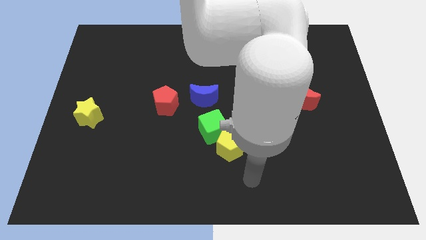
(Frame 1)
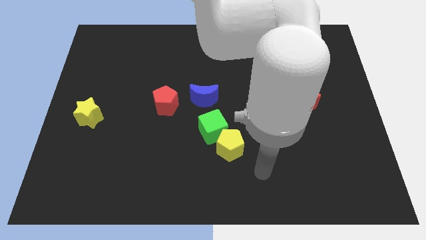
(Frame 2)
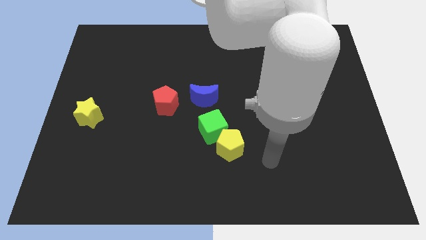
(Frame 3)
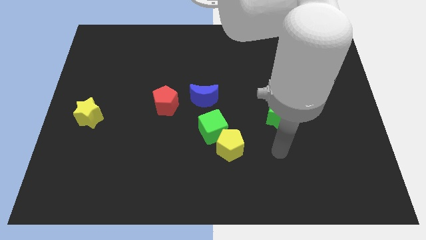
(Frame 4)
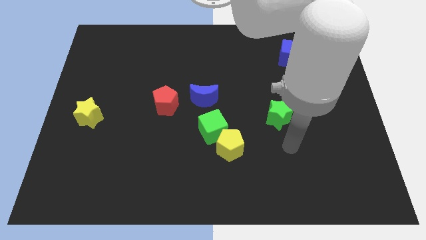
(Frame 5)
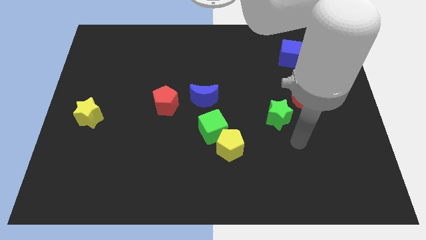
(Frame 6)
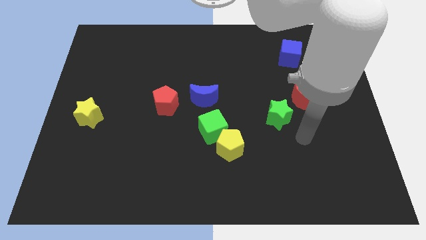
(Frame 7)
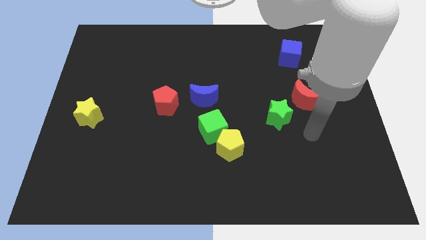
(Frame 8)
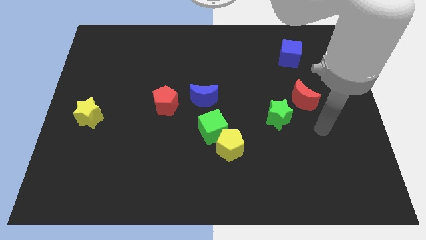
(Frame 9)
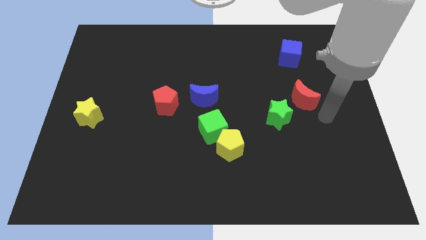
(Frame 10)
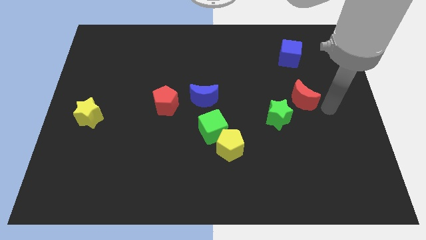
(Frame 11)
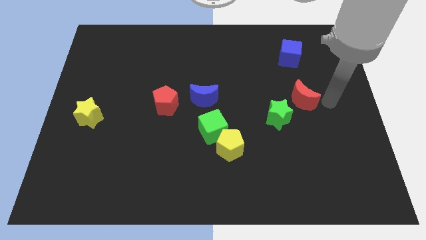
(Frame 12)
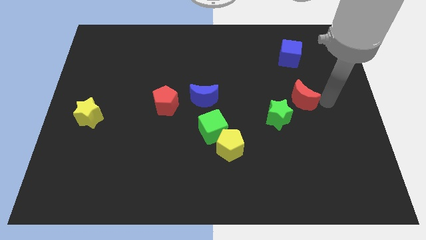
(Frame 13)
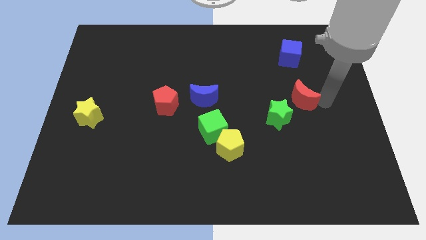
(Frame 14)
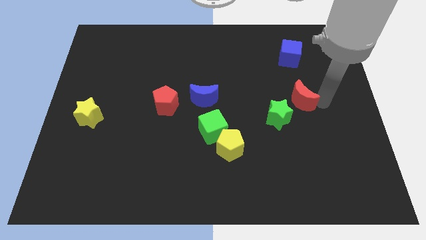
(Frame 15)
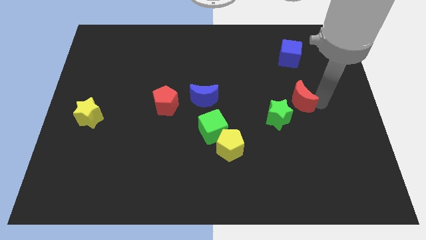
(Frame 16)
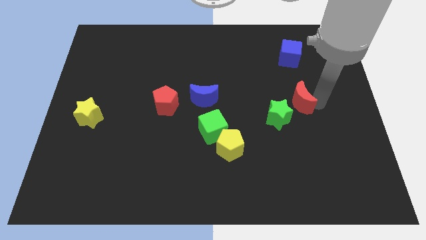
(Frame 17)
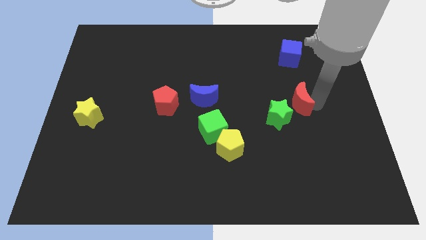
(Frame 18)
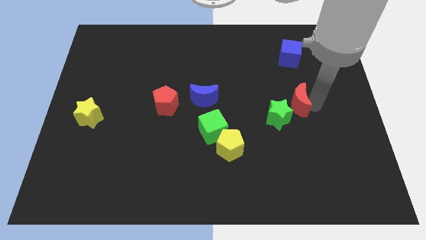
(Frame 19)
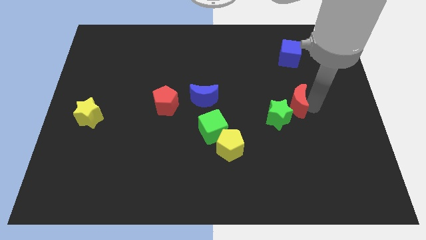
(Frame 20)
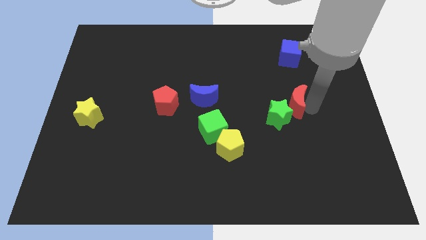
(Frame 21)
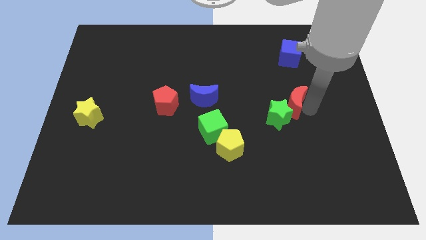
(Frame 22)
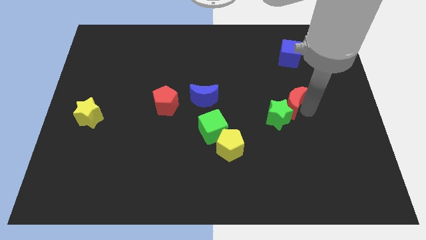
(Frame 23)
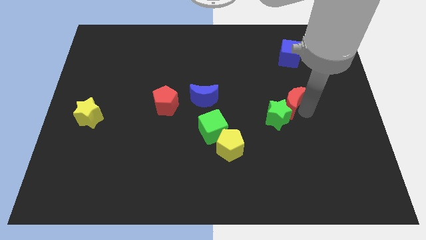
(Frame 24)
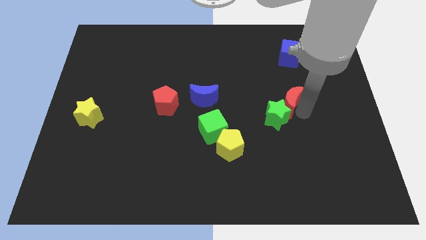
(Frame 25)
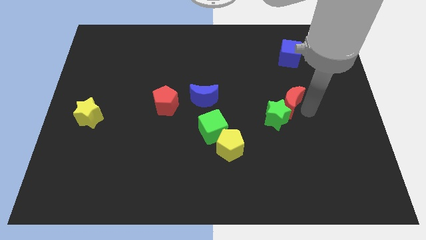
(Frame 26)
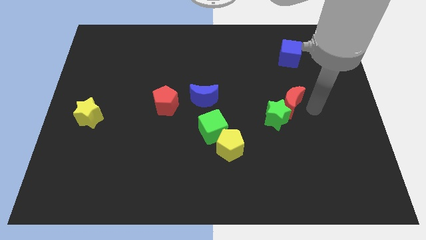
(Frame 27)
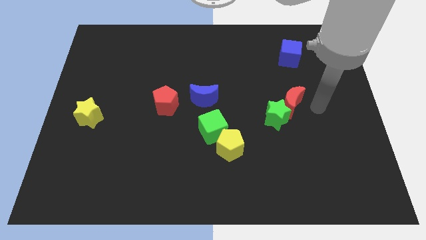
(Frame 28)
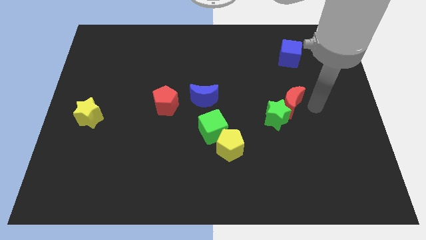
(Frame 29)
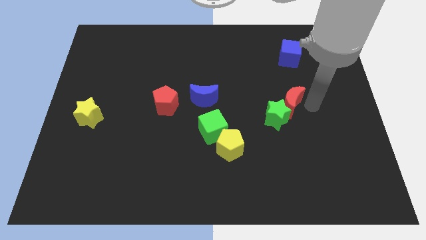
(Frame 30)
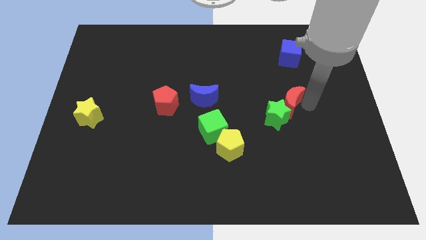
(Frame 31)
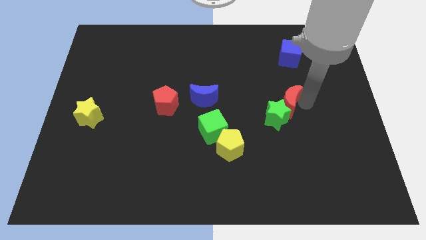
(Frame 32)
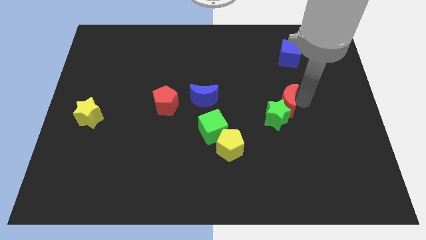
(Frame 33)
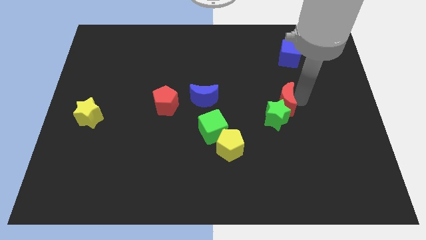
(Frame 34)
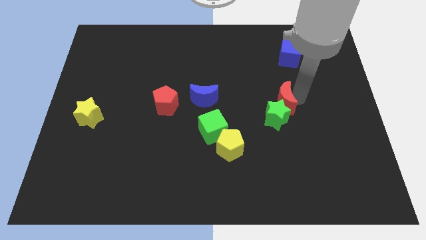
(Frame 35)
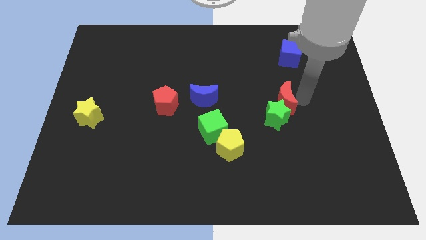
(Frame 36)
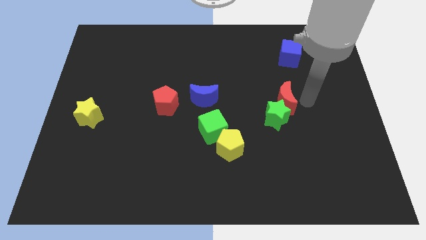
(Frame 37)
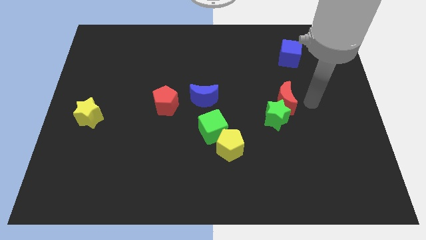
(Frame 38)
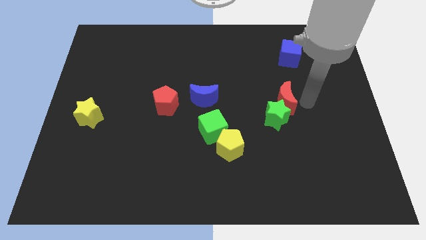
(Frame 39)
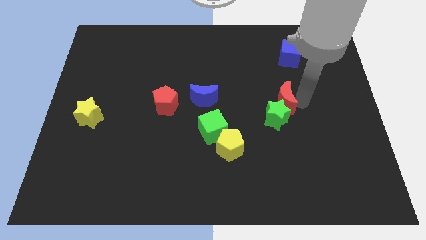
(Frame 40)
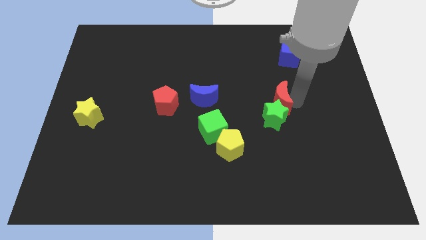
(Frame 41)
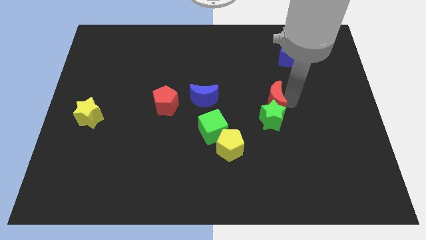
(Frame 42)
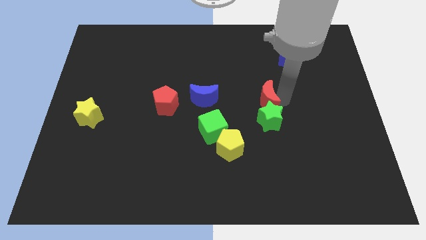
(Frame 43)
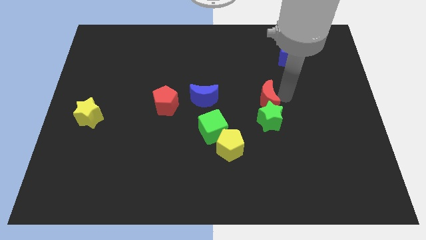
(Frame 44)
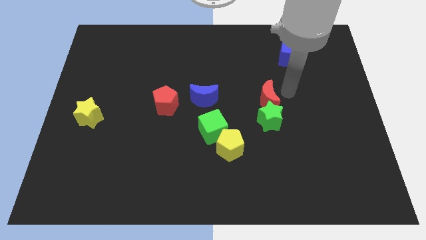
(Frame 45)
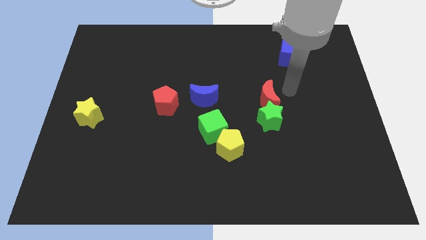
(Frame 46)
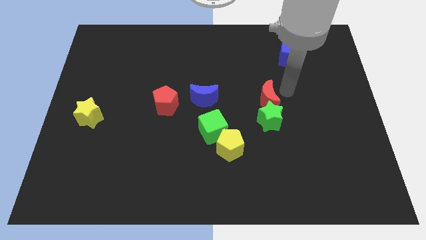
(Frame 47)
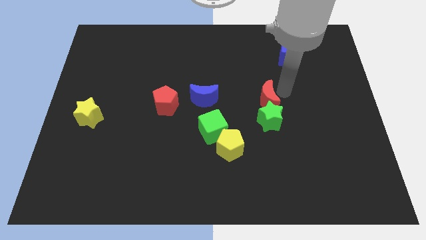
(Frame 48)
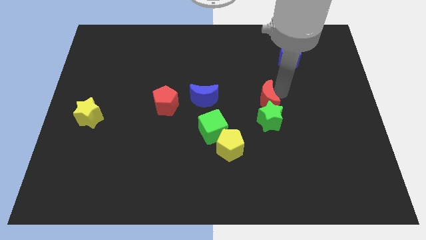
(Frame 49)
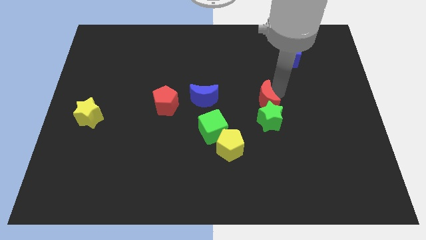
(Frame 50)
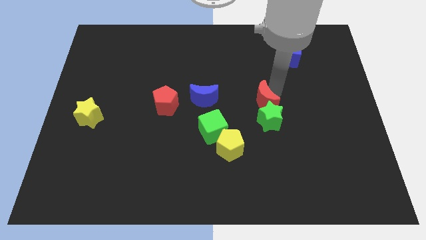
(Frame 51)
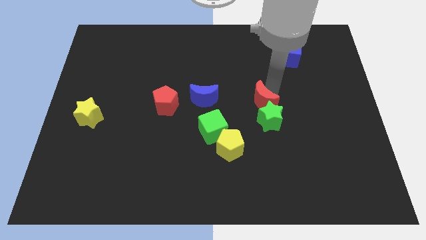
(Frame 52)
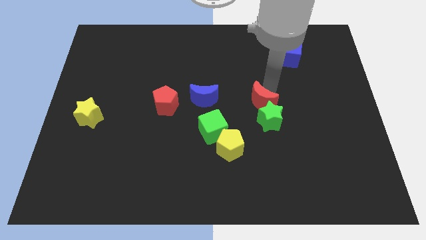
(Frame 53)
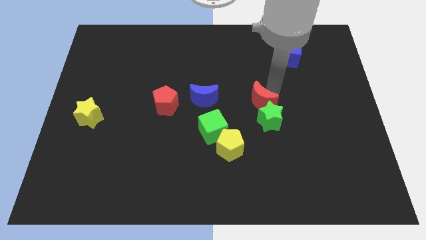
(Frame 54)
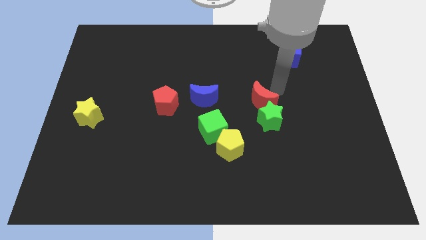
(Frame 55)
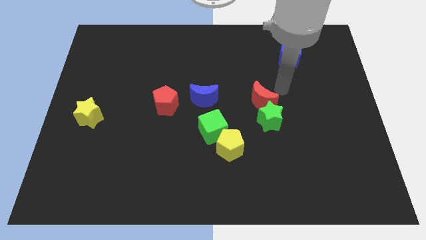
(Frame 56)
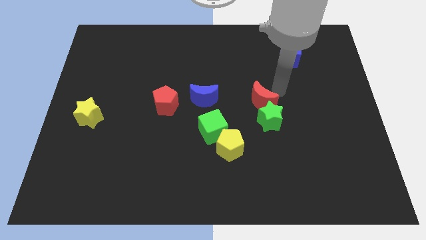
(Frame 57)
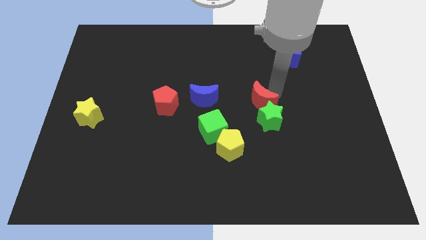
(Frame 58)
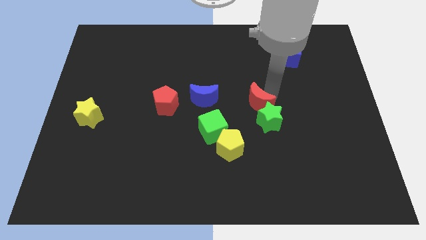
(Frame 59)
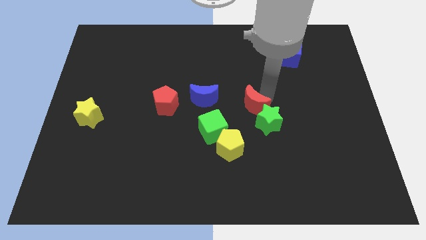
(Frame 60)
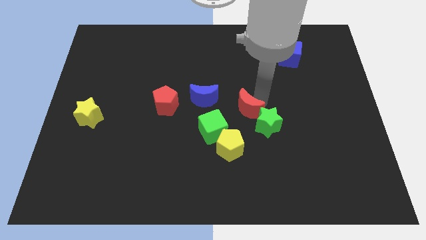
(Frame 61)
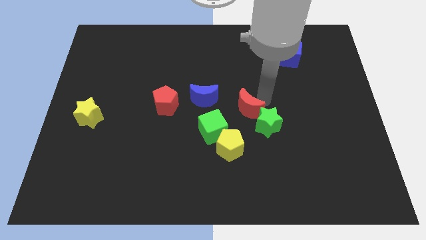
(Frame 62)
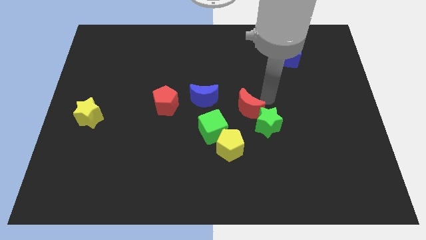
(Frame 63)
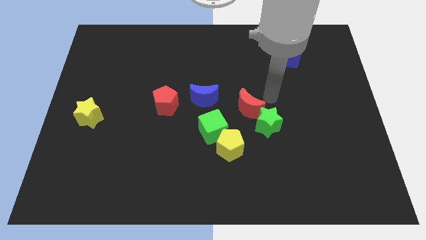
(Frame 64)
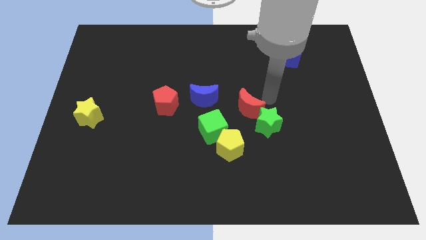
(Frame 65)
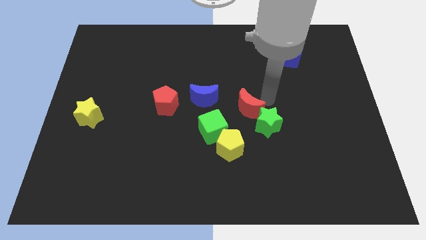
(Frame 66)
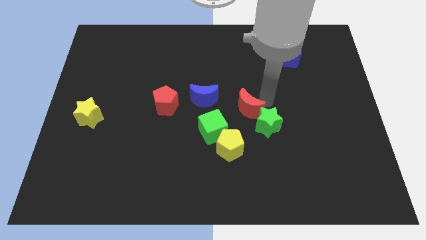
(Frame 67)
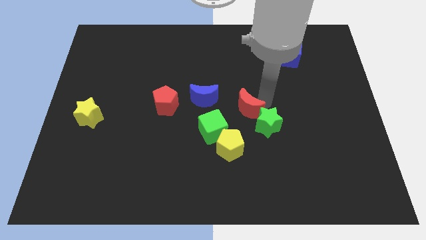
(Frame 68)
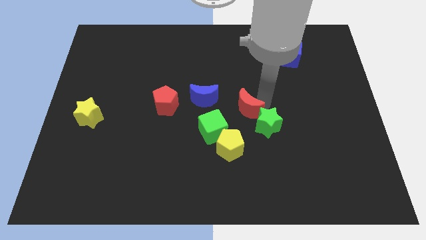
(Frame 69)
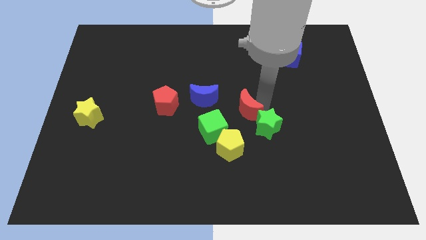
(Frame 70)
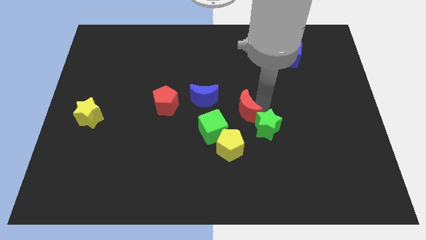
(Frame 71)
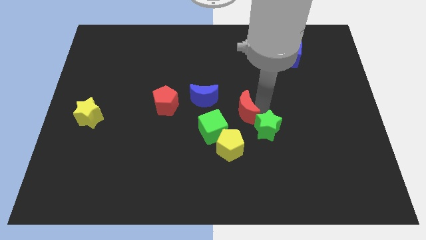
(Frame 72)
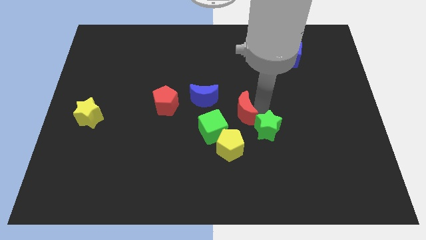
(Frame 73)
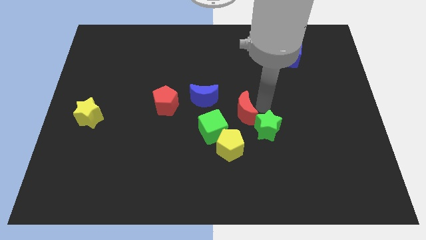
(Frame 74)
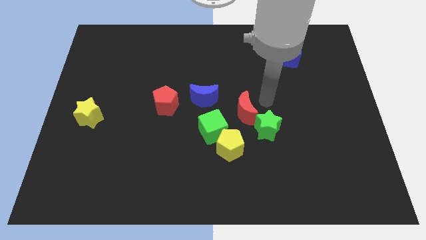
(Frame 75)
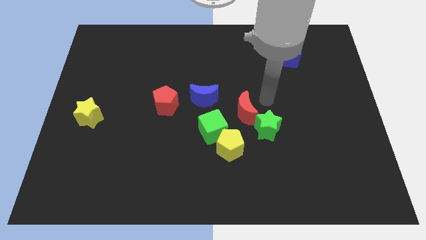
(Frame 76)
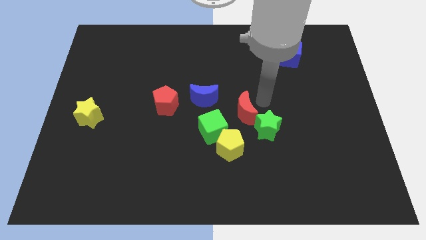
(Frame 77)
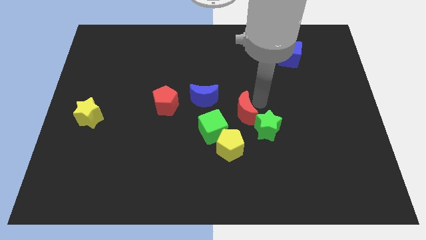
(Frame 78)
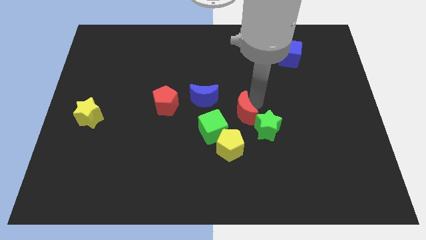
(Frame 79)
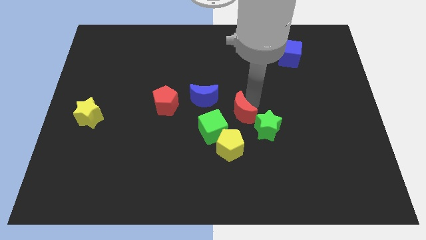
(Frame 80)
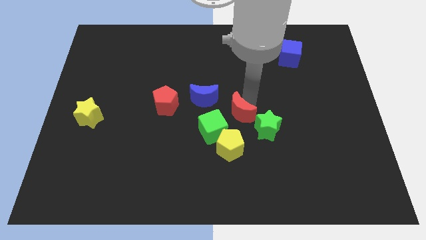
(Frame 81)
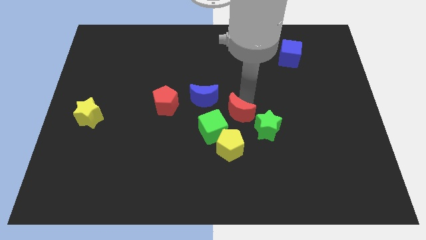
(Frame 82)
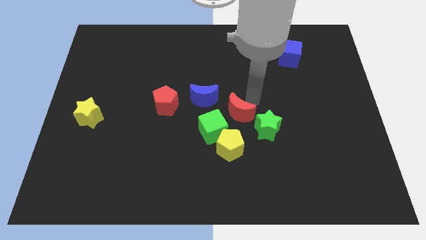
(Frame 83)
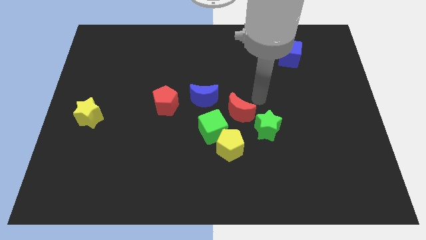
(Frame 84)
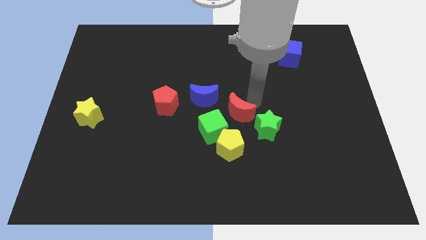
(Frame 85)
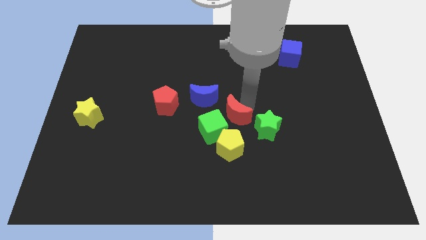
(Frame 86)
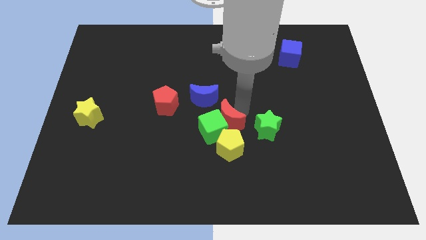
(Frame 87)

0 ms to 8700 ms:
put the red moon towards the green cube
